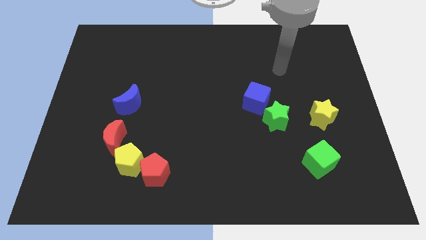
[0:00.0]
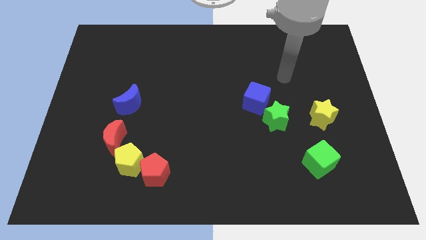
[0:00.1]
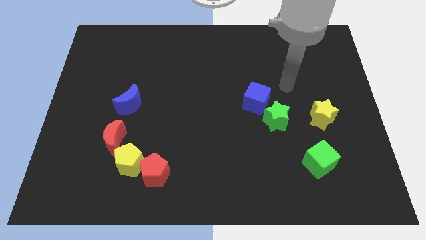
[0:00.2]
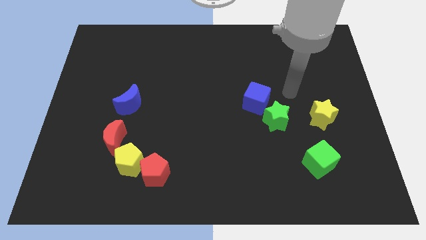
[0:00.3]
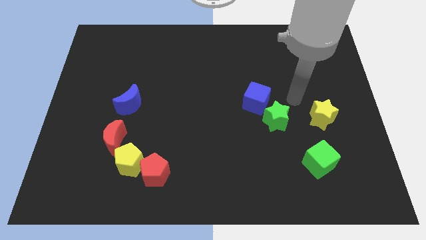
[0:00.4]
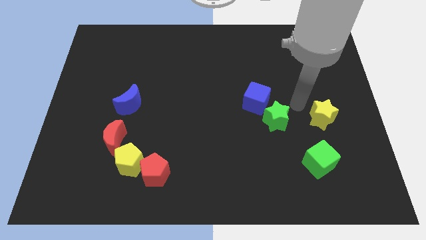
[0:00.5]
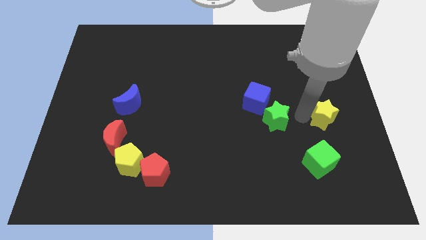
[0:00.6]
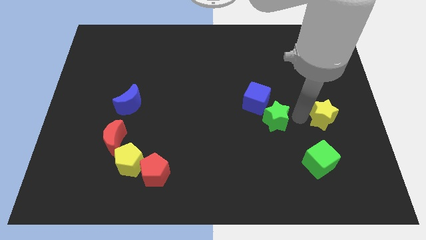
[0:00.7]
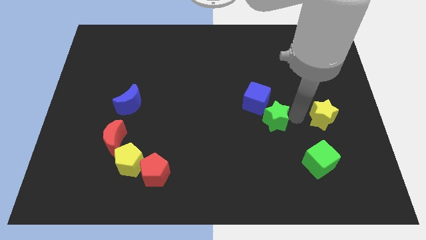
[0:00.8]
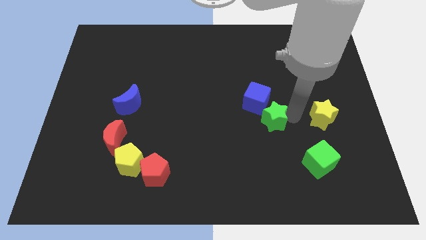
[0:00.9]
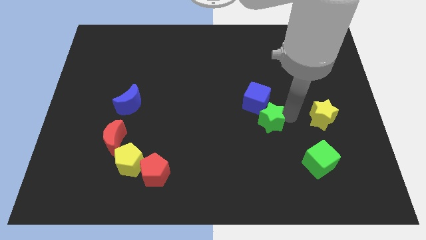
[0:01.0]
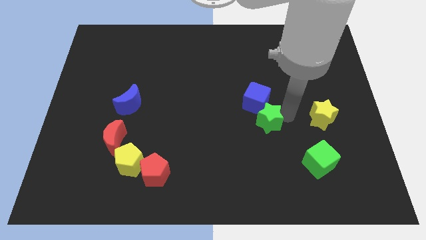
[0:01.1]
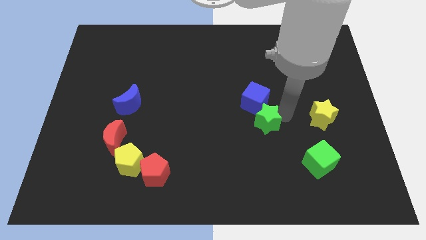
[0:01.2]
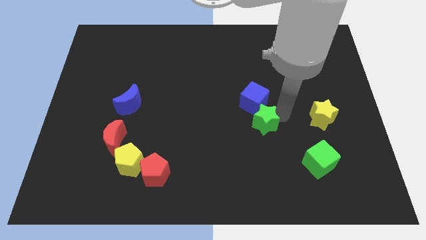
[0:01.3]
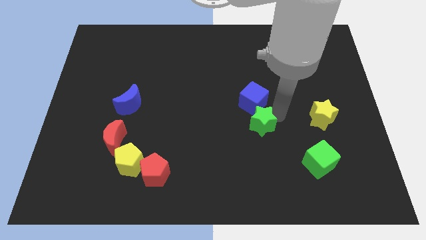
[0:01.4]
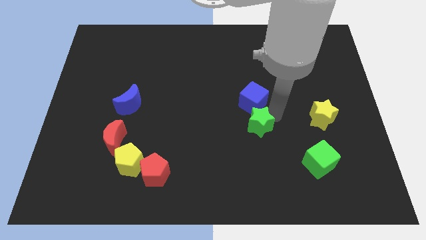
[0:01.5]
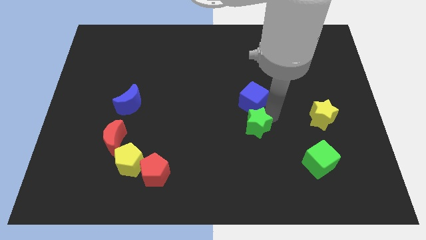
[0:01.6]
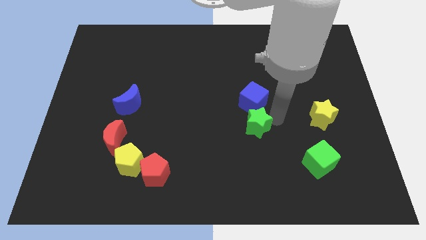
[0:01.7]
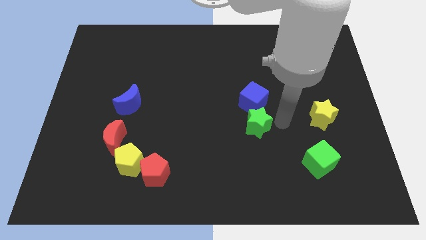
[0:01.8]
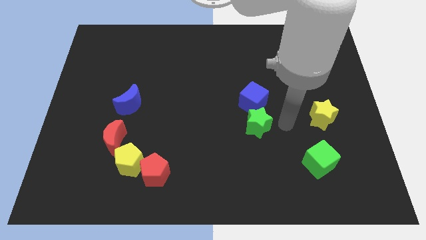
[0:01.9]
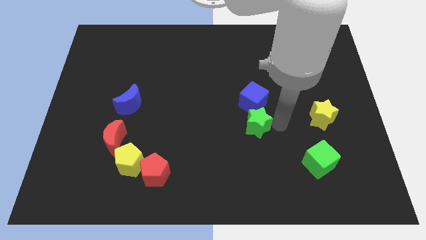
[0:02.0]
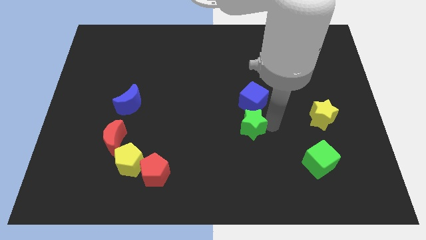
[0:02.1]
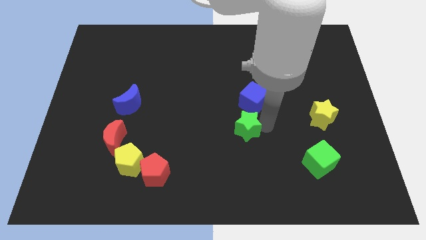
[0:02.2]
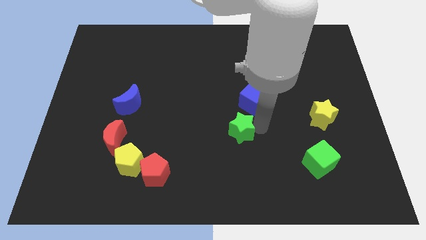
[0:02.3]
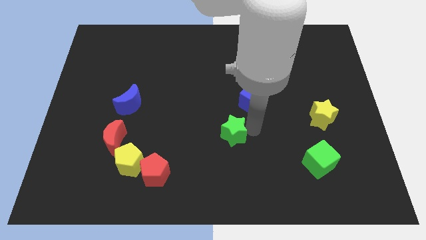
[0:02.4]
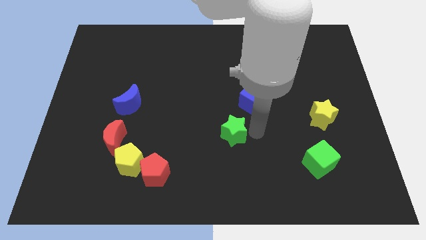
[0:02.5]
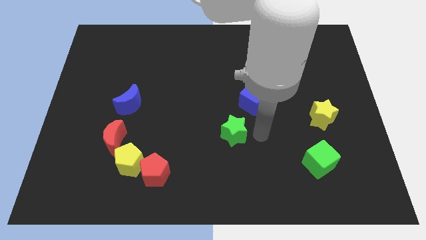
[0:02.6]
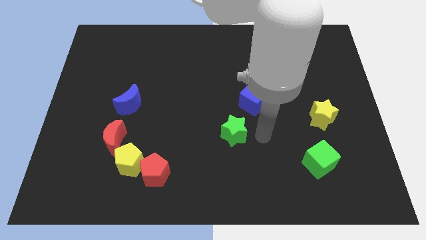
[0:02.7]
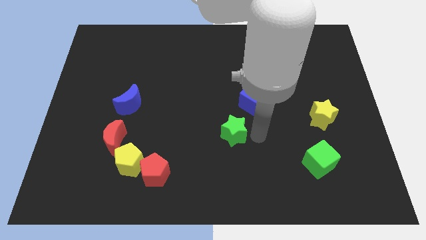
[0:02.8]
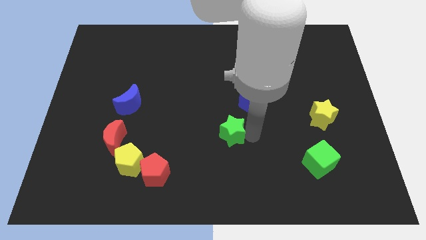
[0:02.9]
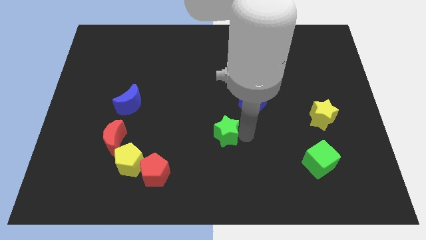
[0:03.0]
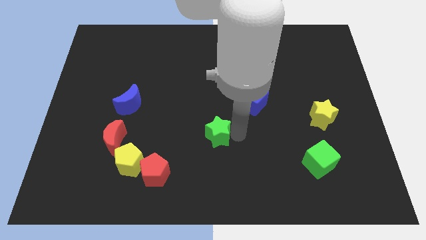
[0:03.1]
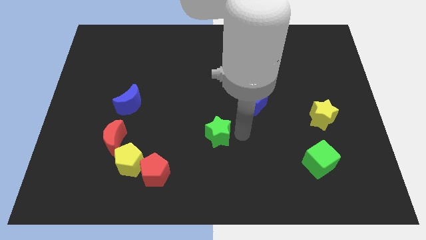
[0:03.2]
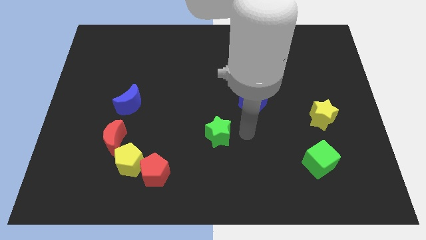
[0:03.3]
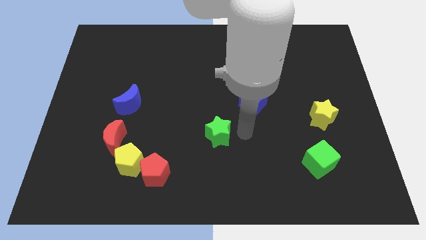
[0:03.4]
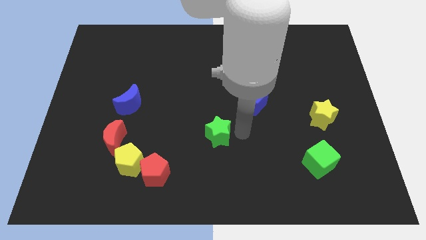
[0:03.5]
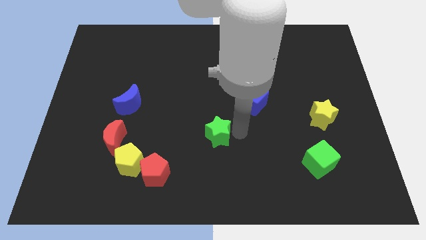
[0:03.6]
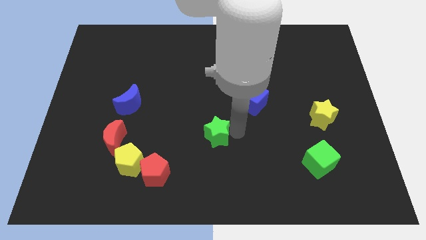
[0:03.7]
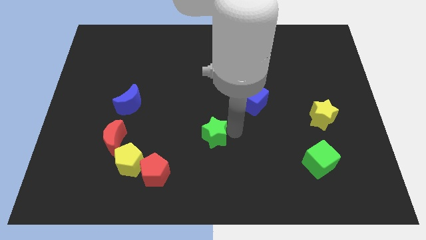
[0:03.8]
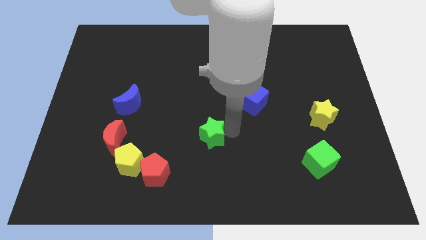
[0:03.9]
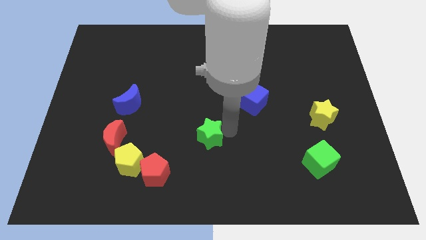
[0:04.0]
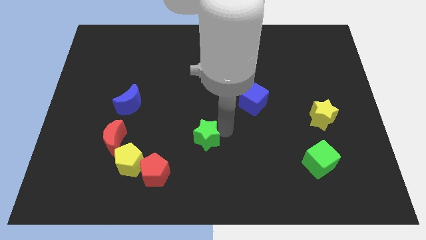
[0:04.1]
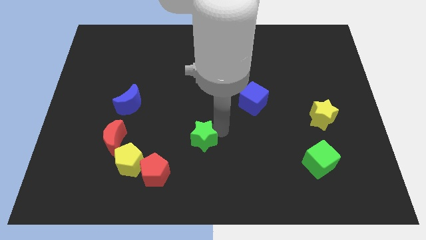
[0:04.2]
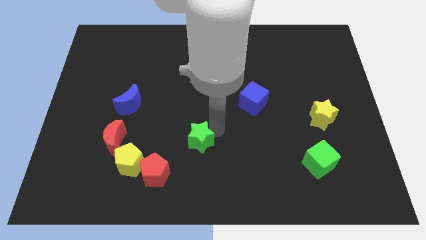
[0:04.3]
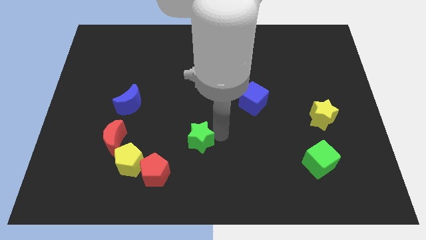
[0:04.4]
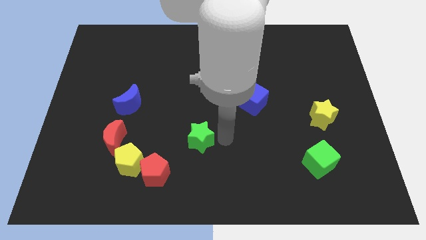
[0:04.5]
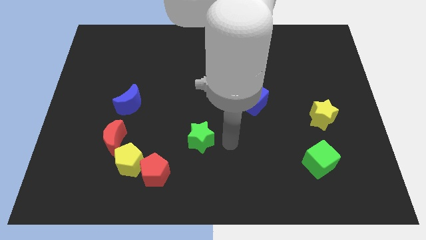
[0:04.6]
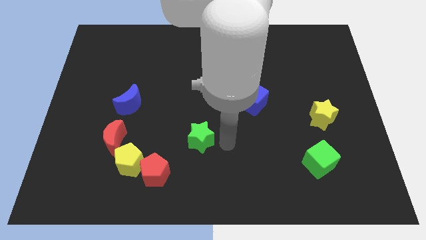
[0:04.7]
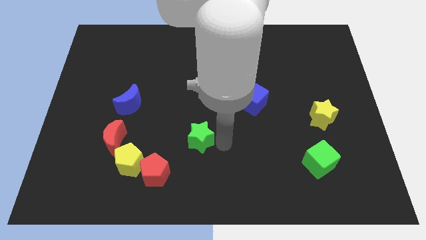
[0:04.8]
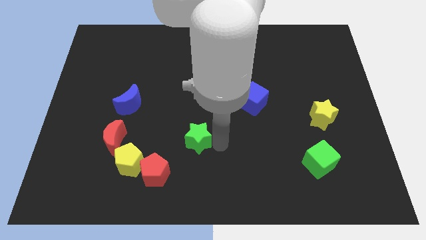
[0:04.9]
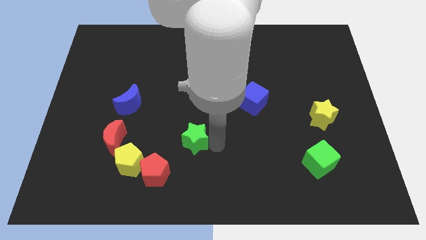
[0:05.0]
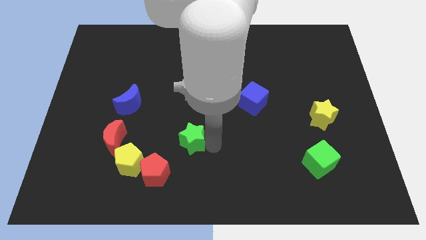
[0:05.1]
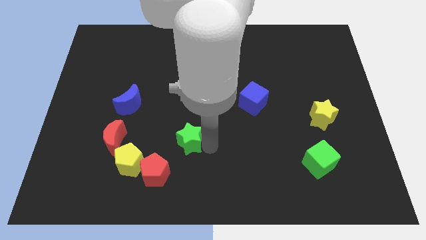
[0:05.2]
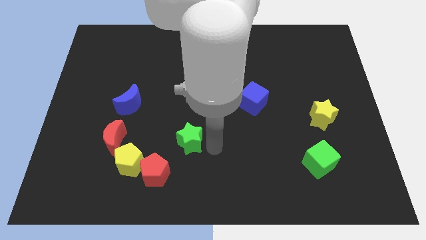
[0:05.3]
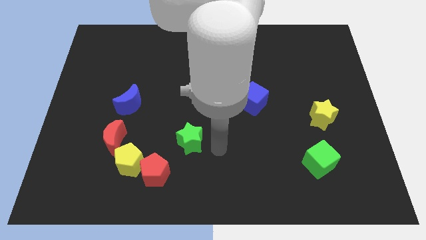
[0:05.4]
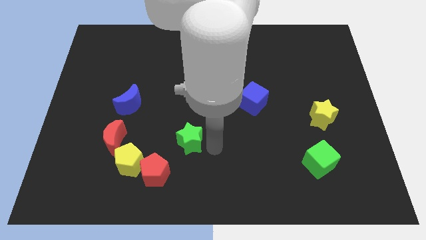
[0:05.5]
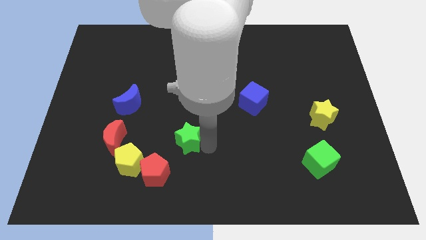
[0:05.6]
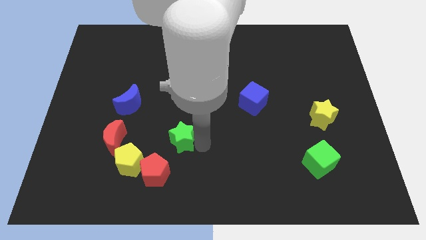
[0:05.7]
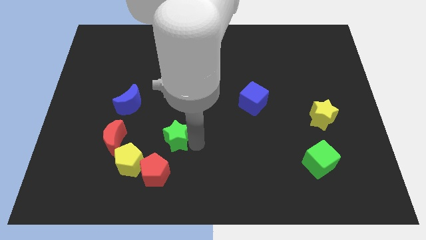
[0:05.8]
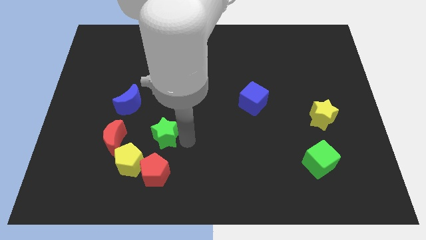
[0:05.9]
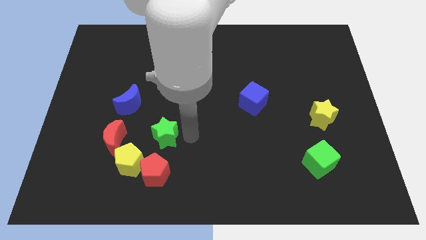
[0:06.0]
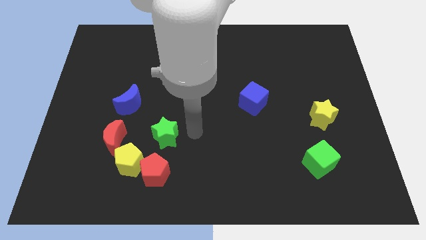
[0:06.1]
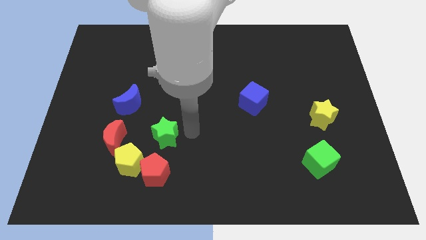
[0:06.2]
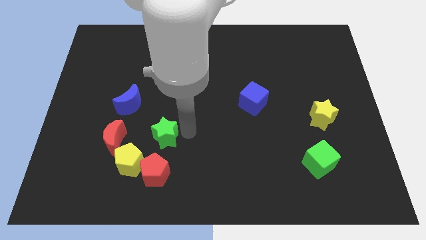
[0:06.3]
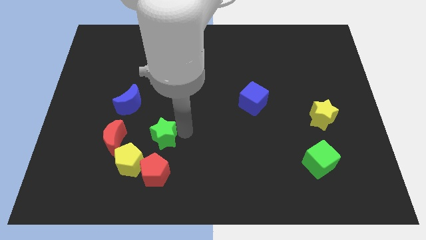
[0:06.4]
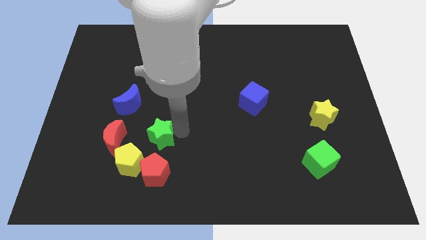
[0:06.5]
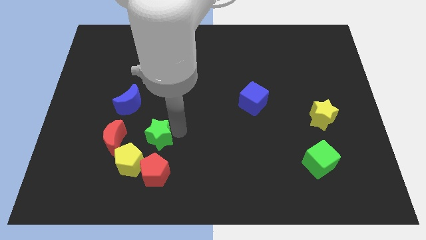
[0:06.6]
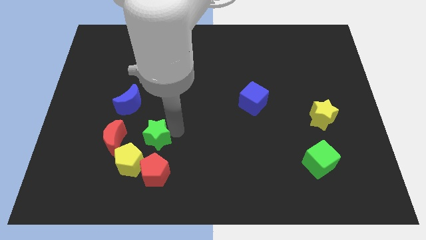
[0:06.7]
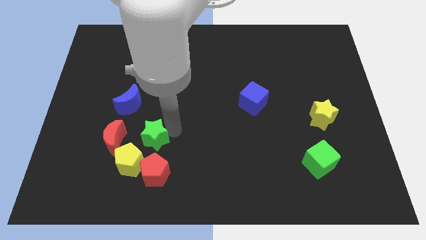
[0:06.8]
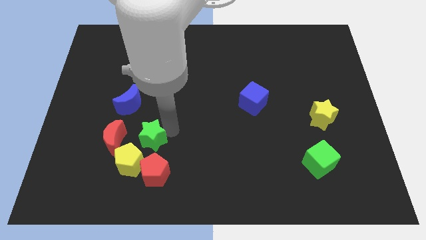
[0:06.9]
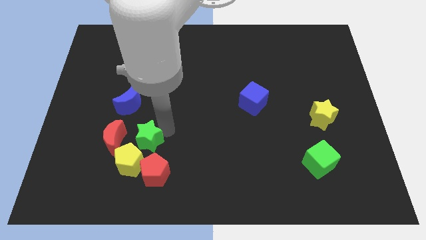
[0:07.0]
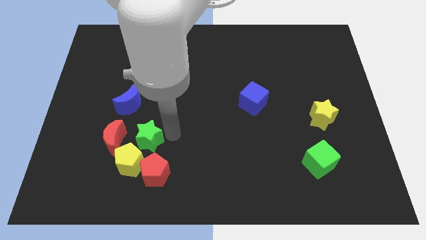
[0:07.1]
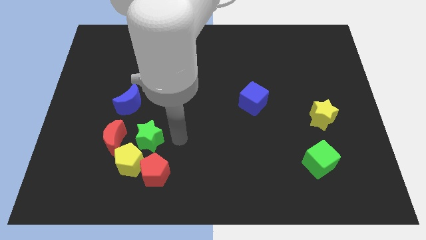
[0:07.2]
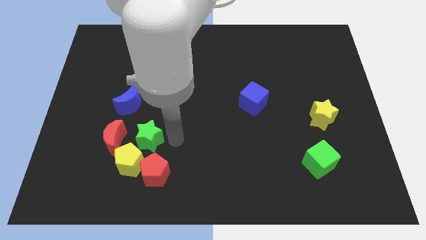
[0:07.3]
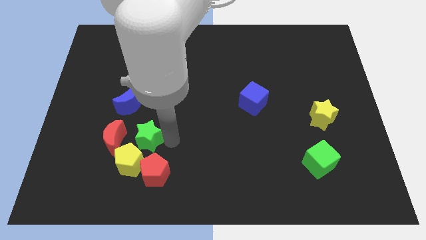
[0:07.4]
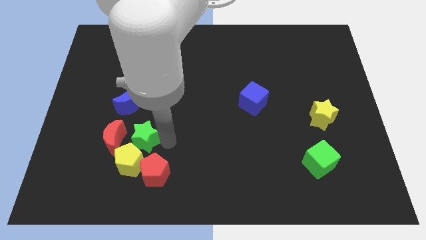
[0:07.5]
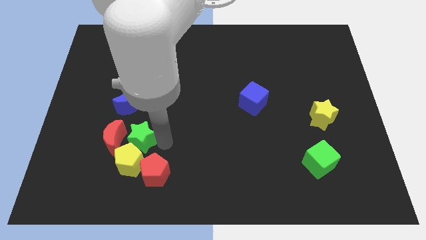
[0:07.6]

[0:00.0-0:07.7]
put the green star to the red moon
